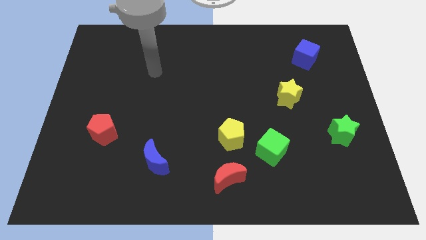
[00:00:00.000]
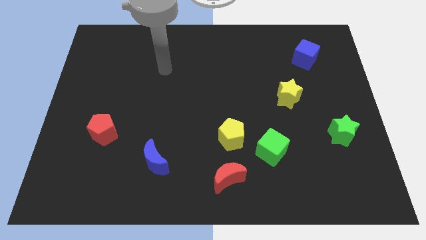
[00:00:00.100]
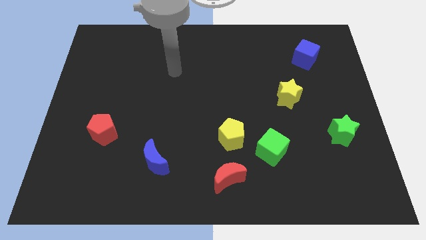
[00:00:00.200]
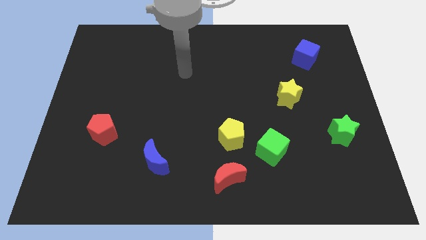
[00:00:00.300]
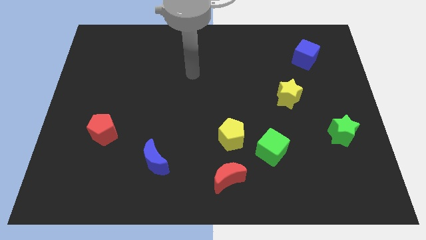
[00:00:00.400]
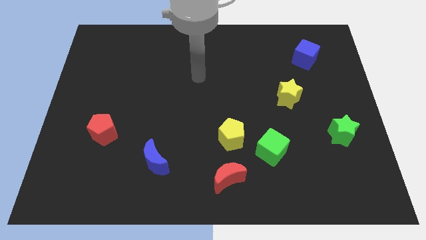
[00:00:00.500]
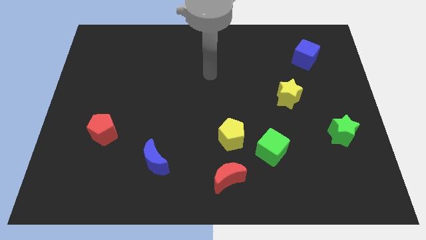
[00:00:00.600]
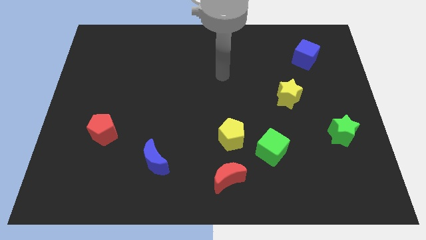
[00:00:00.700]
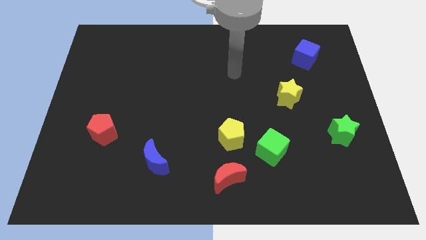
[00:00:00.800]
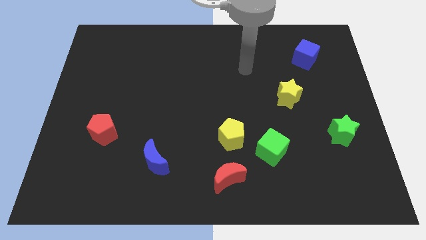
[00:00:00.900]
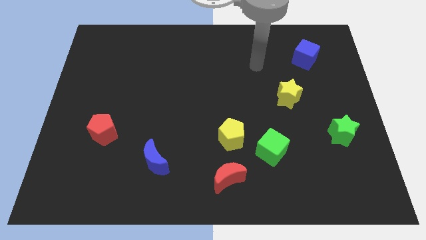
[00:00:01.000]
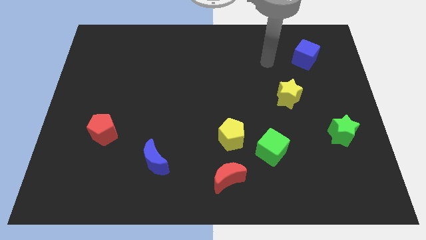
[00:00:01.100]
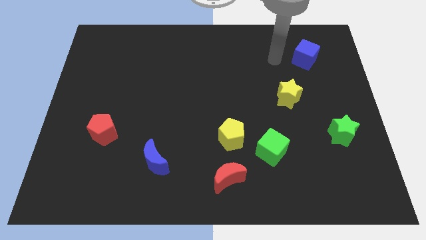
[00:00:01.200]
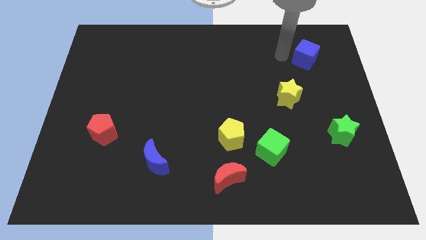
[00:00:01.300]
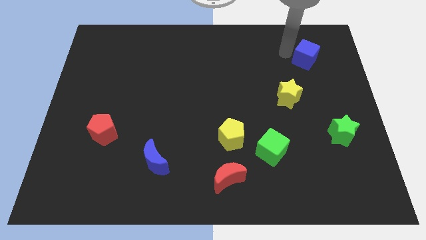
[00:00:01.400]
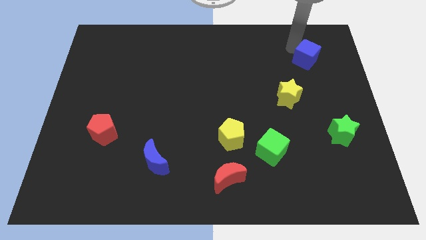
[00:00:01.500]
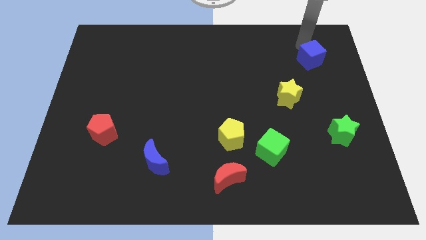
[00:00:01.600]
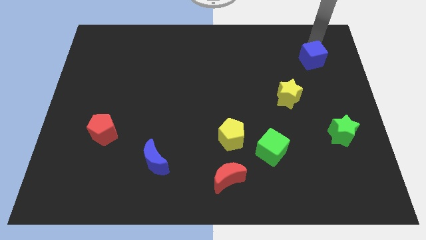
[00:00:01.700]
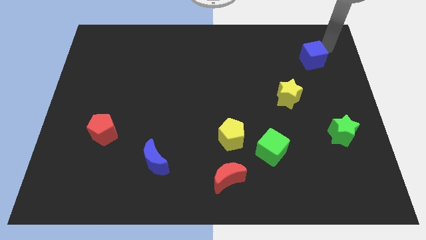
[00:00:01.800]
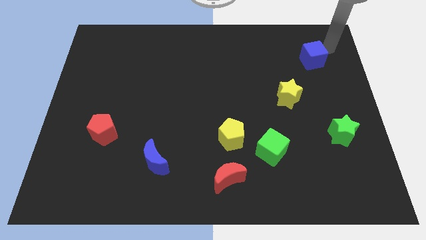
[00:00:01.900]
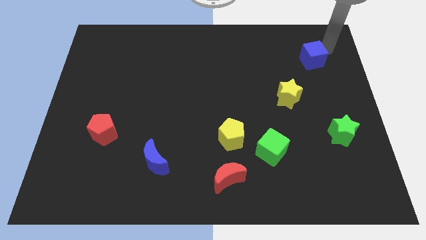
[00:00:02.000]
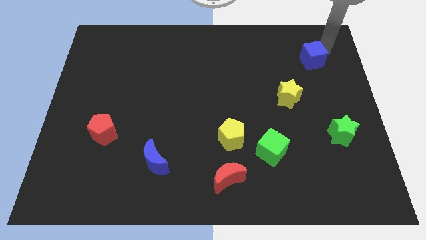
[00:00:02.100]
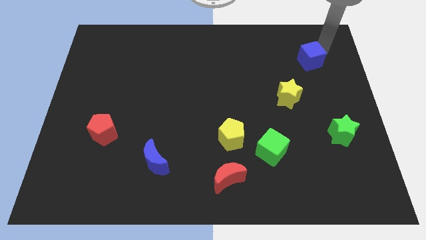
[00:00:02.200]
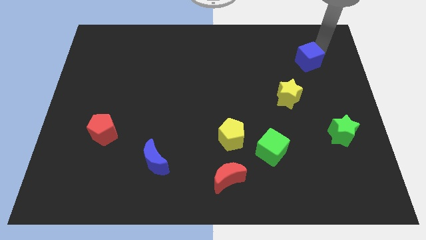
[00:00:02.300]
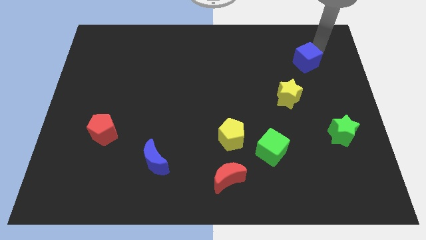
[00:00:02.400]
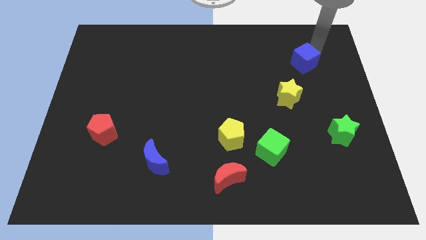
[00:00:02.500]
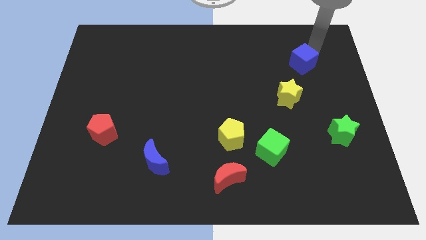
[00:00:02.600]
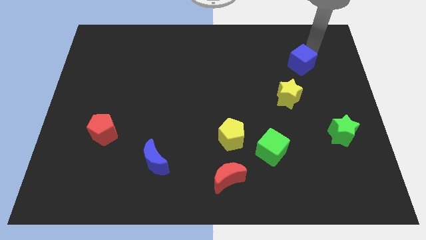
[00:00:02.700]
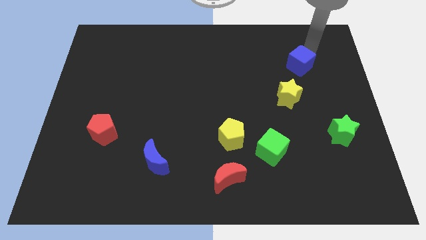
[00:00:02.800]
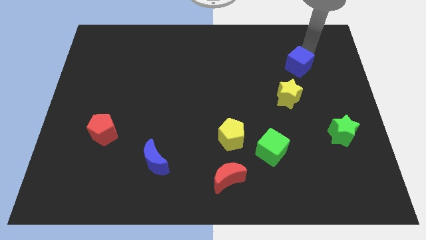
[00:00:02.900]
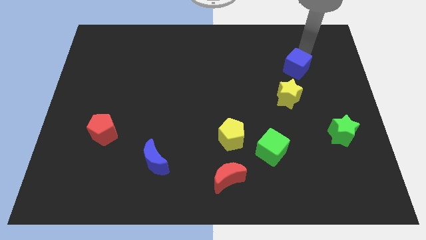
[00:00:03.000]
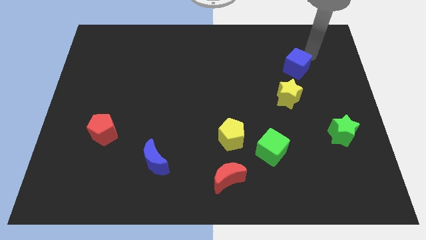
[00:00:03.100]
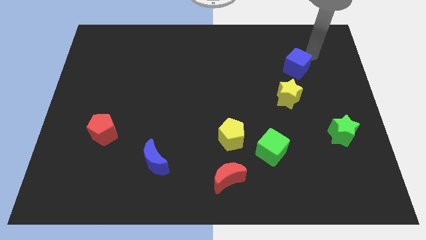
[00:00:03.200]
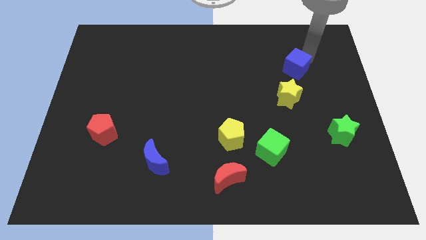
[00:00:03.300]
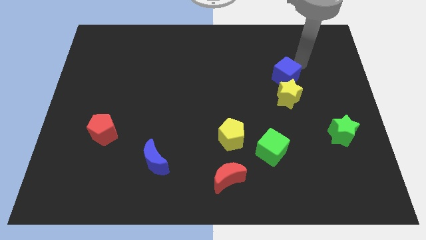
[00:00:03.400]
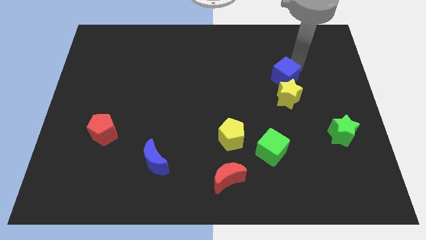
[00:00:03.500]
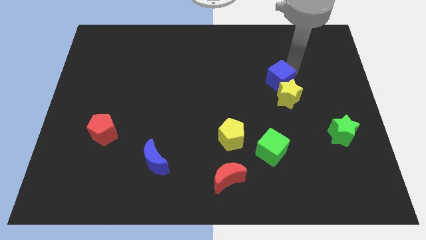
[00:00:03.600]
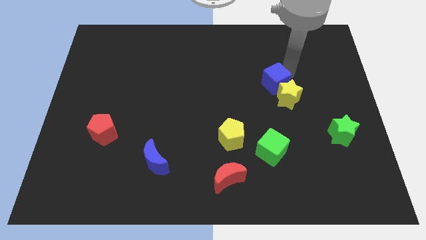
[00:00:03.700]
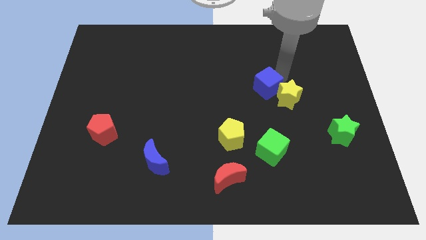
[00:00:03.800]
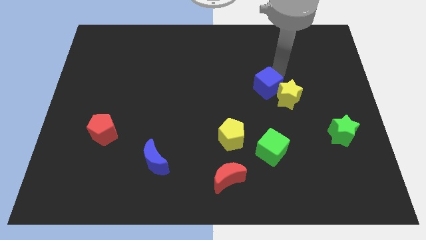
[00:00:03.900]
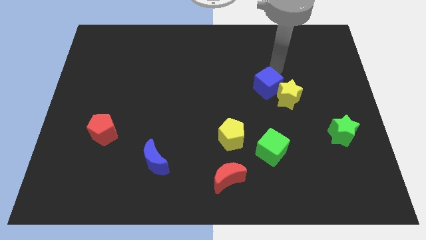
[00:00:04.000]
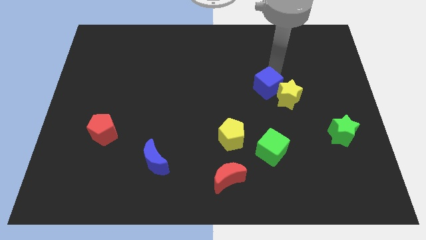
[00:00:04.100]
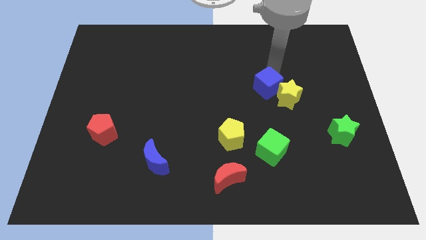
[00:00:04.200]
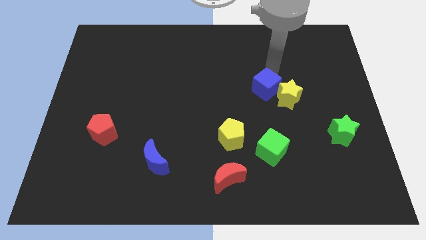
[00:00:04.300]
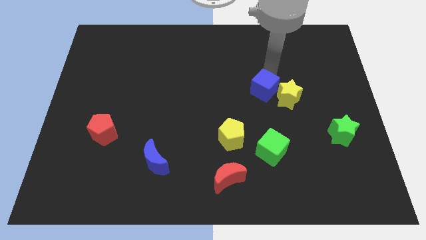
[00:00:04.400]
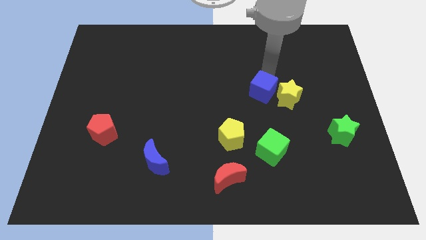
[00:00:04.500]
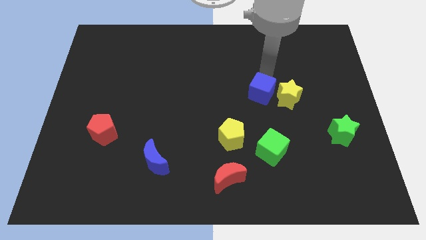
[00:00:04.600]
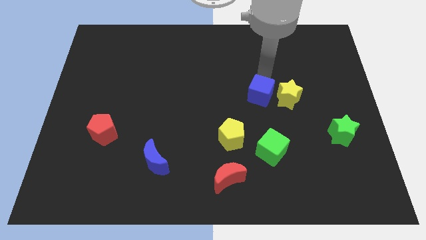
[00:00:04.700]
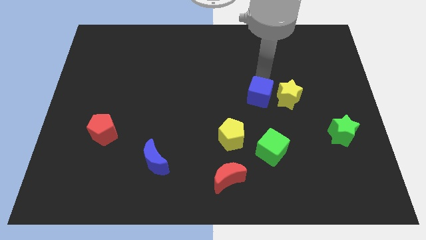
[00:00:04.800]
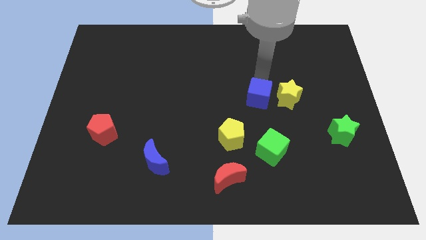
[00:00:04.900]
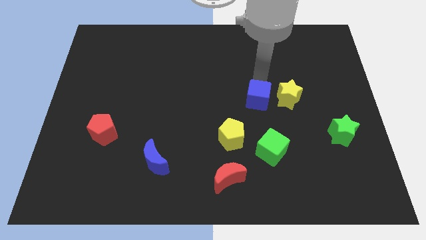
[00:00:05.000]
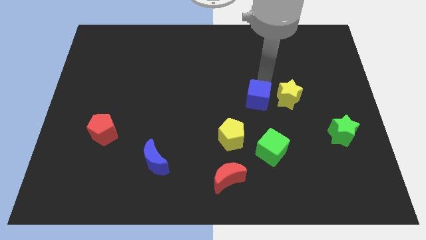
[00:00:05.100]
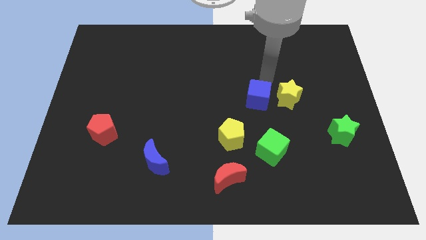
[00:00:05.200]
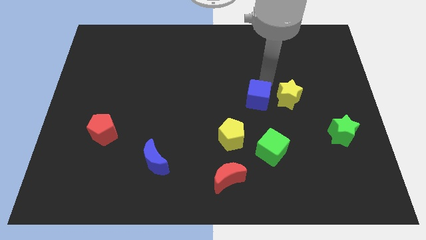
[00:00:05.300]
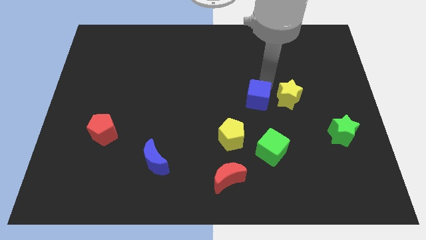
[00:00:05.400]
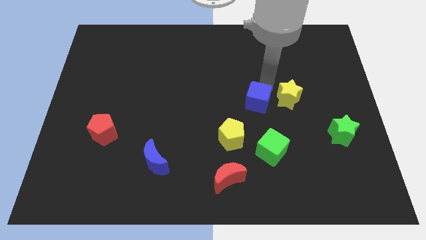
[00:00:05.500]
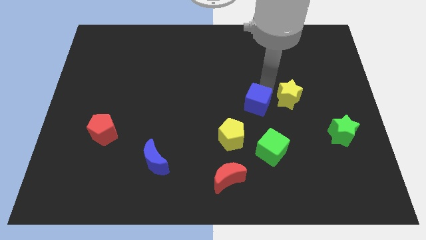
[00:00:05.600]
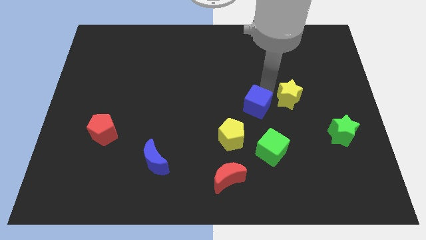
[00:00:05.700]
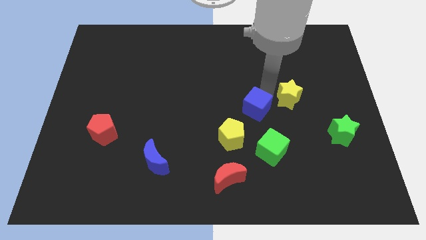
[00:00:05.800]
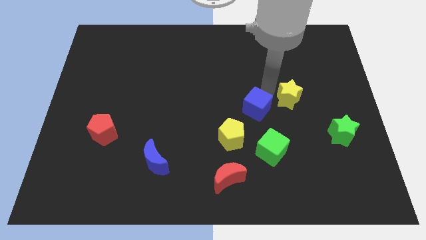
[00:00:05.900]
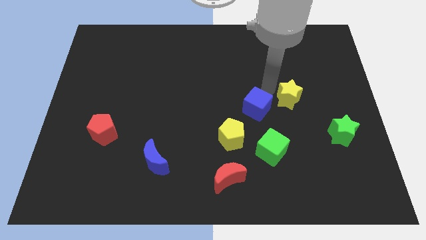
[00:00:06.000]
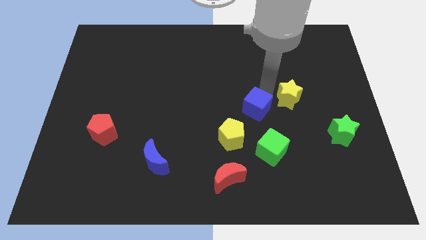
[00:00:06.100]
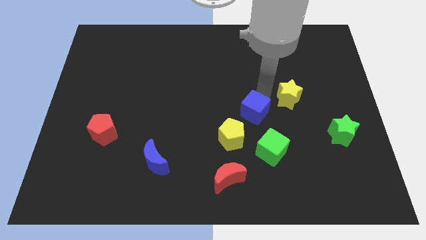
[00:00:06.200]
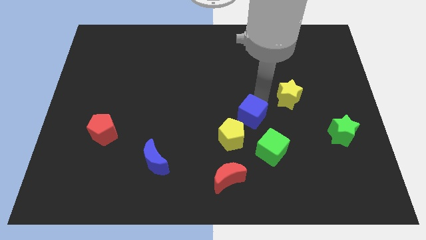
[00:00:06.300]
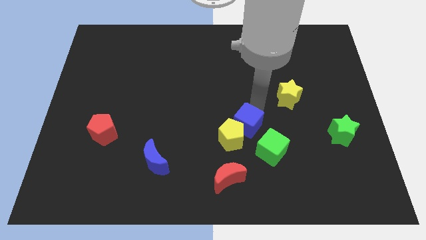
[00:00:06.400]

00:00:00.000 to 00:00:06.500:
push the blue cube to the yellow pentagon
